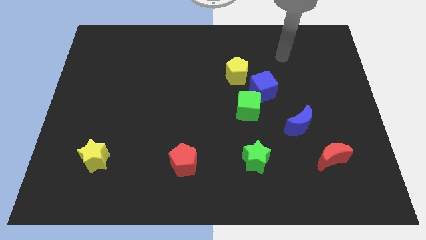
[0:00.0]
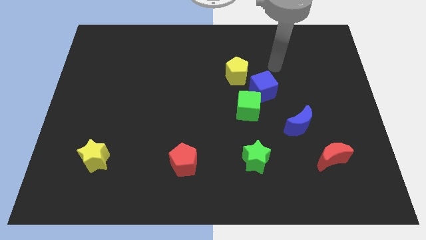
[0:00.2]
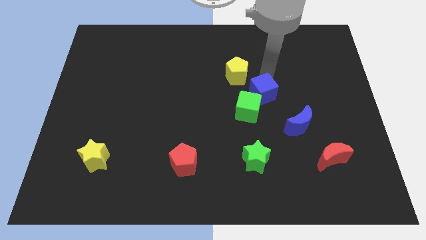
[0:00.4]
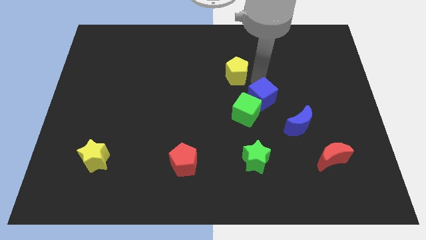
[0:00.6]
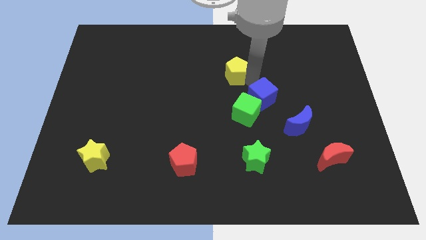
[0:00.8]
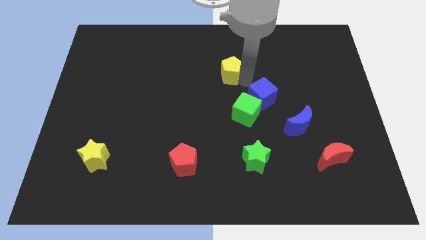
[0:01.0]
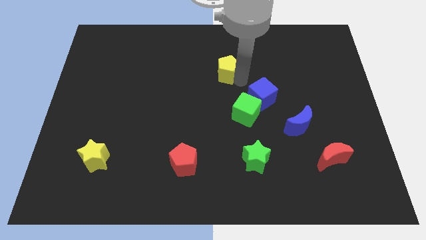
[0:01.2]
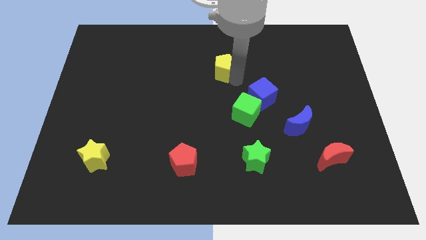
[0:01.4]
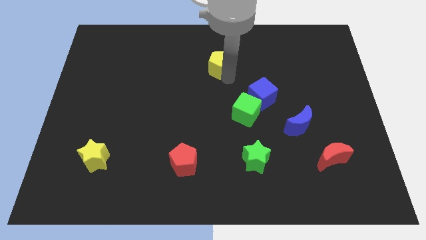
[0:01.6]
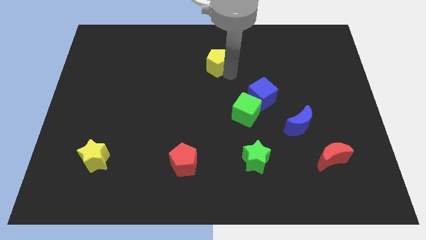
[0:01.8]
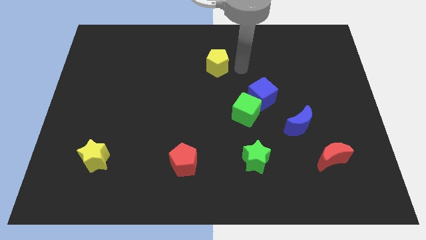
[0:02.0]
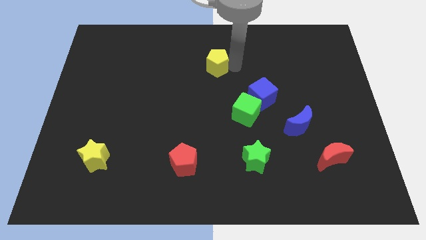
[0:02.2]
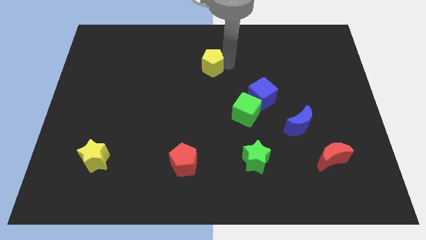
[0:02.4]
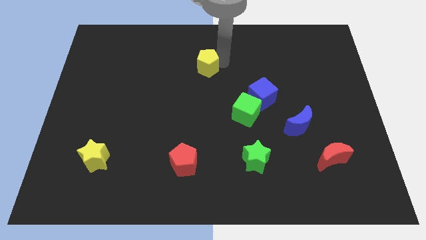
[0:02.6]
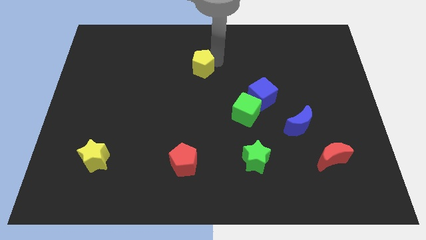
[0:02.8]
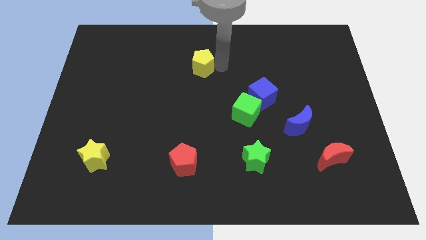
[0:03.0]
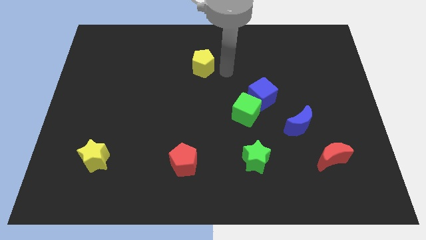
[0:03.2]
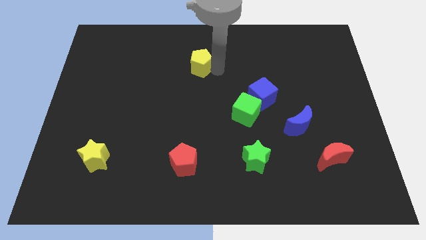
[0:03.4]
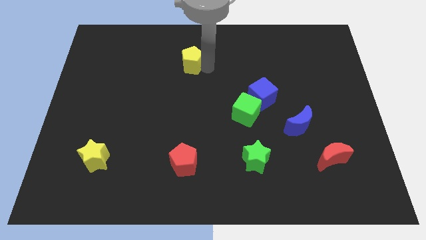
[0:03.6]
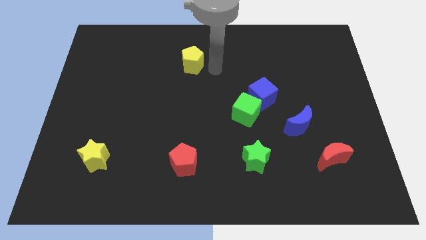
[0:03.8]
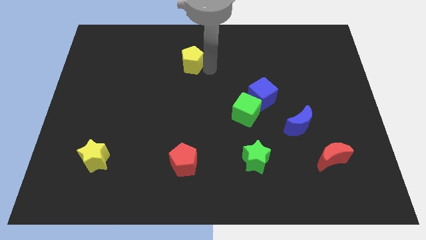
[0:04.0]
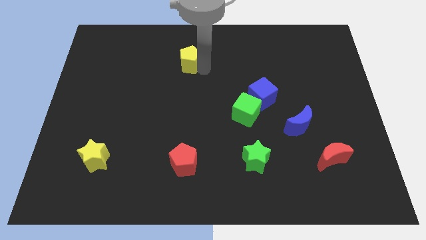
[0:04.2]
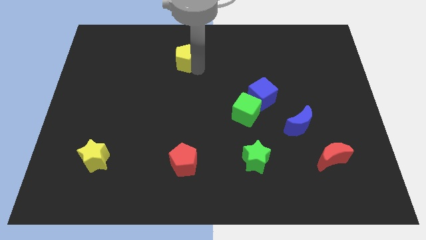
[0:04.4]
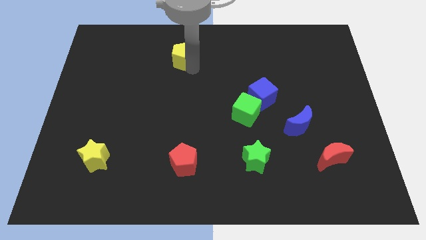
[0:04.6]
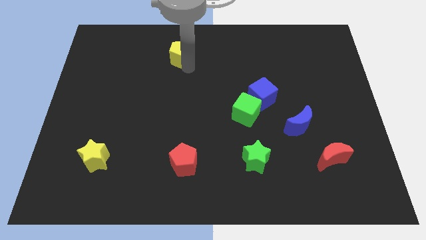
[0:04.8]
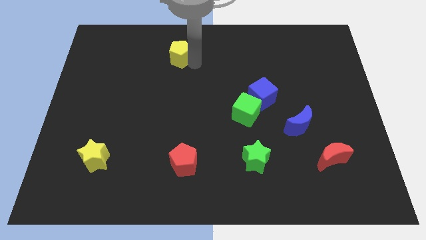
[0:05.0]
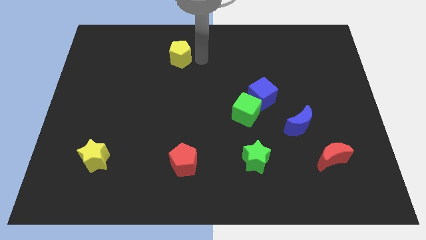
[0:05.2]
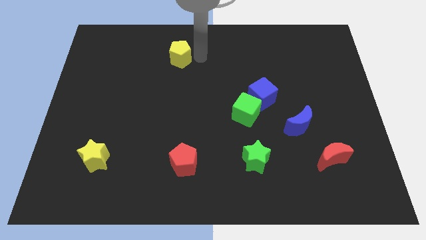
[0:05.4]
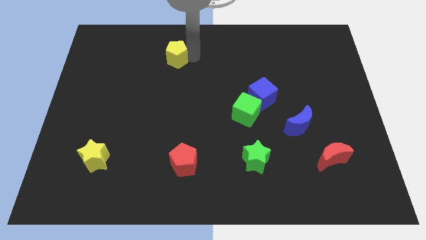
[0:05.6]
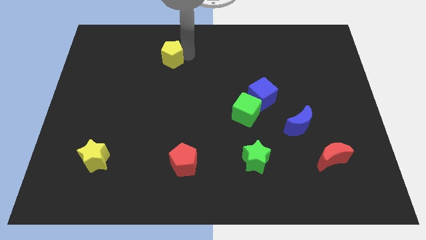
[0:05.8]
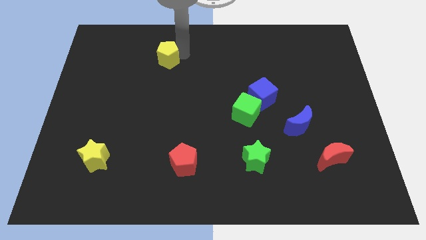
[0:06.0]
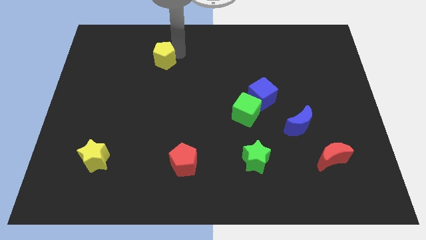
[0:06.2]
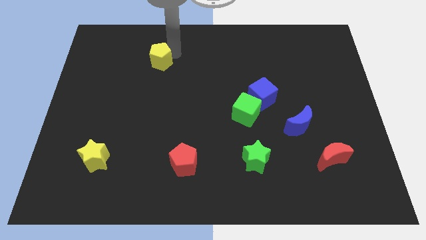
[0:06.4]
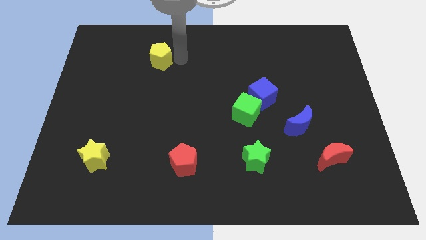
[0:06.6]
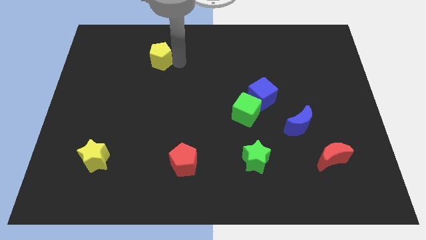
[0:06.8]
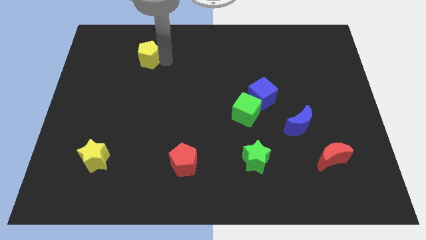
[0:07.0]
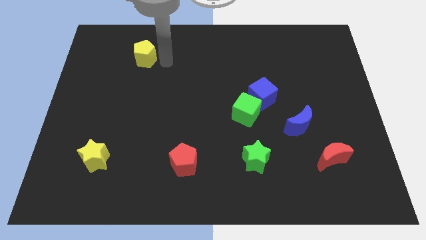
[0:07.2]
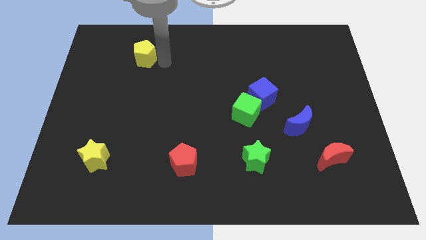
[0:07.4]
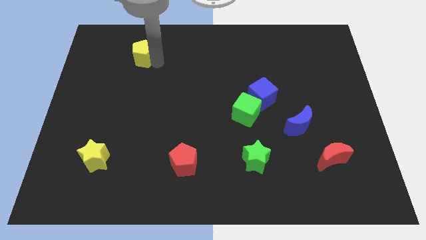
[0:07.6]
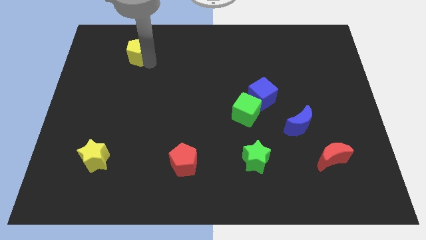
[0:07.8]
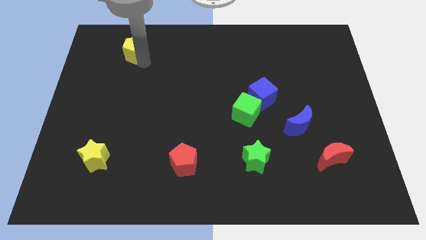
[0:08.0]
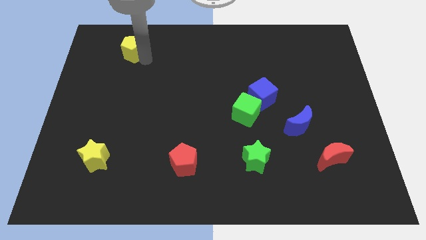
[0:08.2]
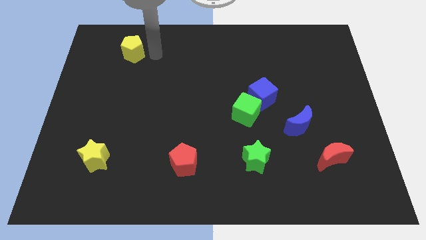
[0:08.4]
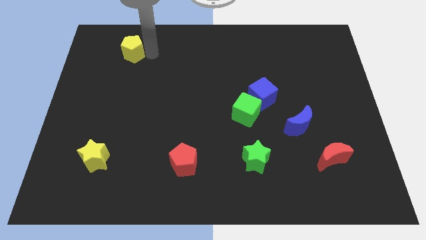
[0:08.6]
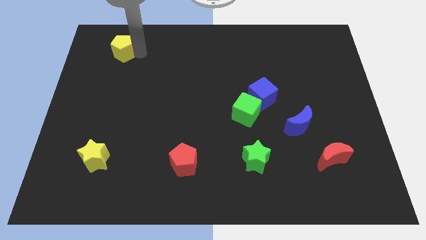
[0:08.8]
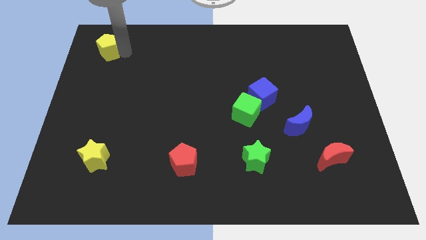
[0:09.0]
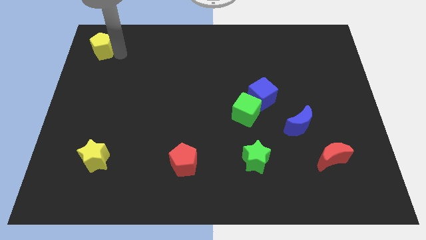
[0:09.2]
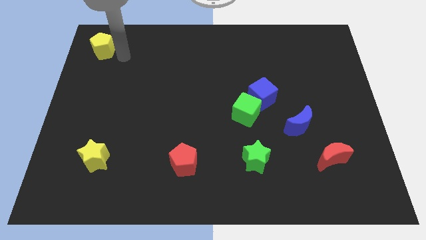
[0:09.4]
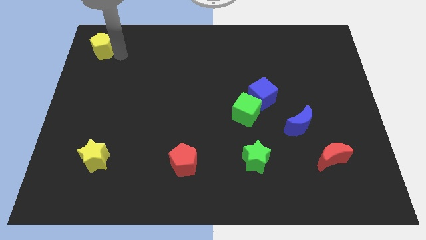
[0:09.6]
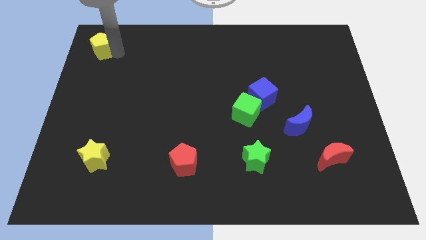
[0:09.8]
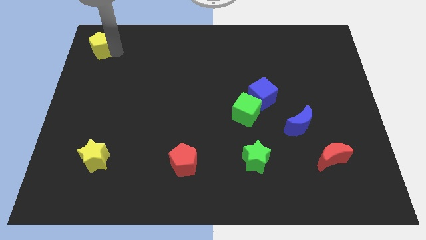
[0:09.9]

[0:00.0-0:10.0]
move the yellow pentagon to the upper left corner

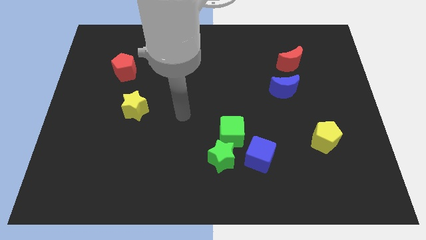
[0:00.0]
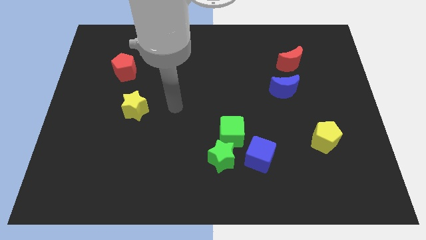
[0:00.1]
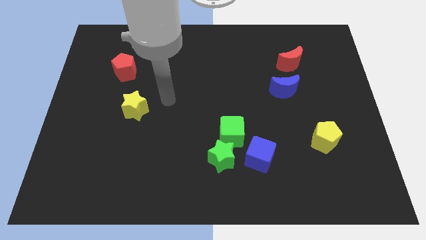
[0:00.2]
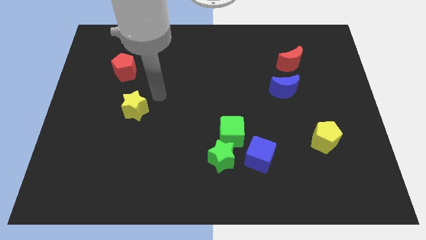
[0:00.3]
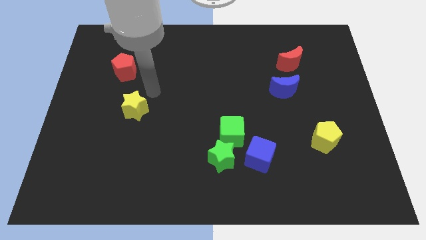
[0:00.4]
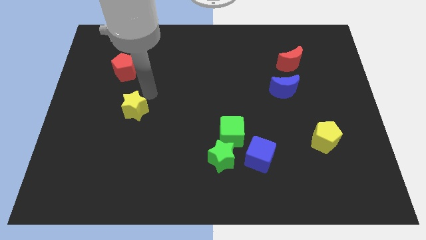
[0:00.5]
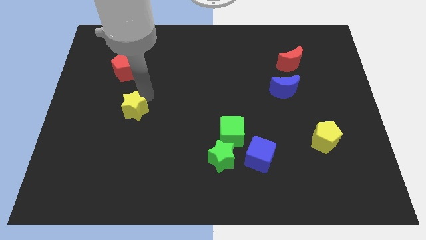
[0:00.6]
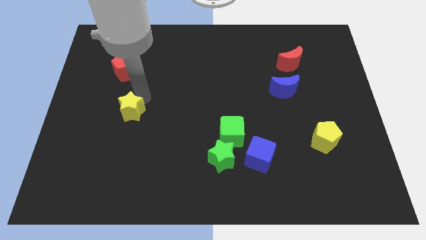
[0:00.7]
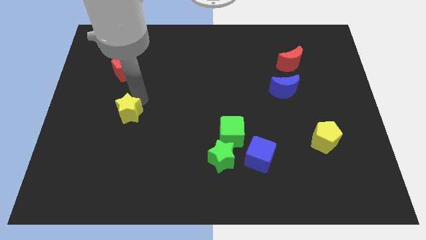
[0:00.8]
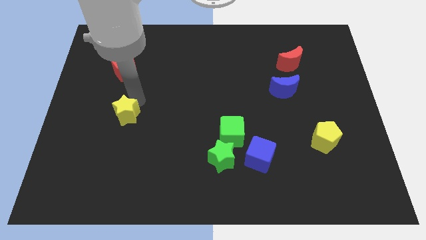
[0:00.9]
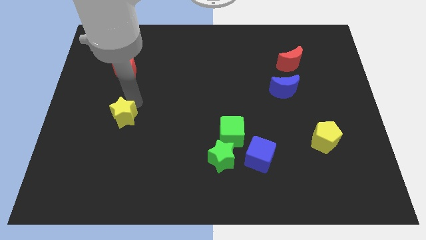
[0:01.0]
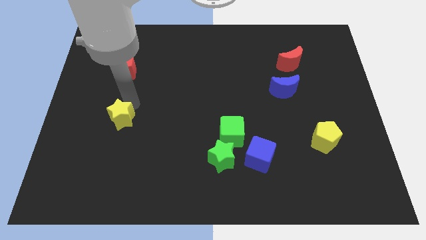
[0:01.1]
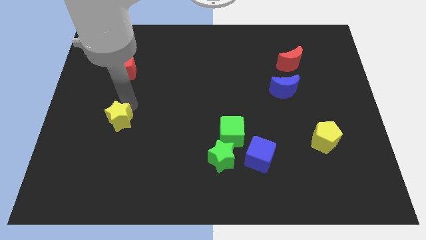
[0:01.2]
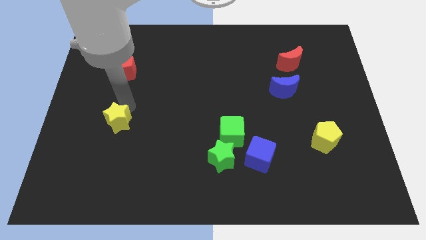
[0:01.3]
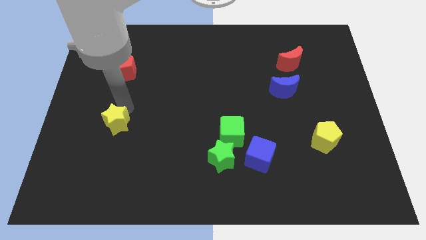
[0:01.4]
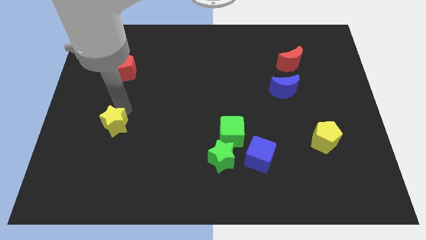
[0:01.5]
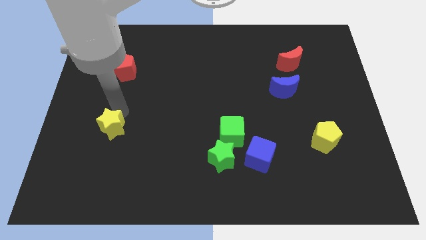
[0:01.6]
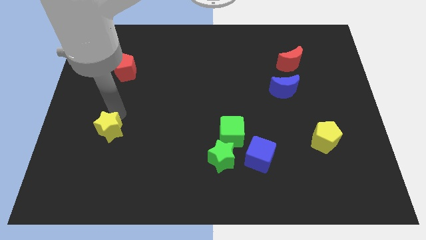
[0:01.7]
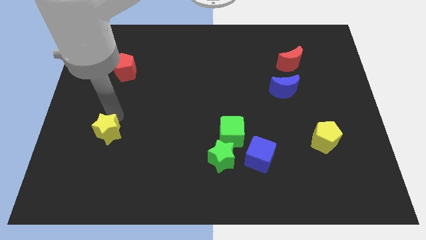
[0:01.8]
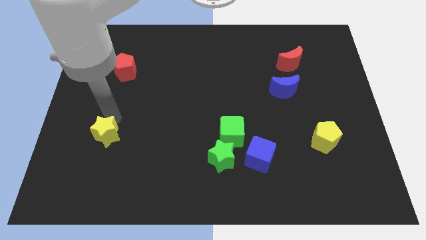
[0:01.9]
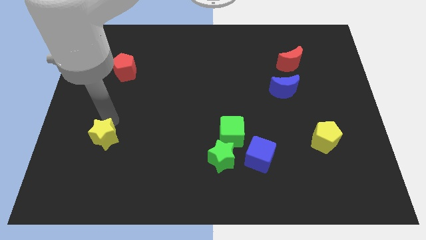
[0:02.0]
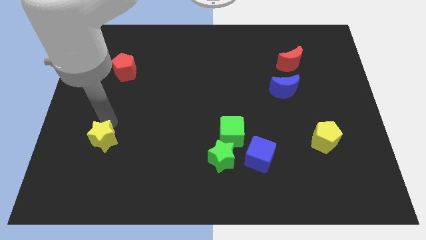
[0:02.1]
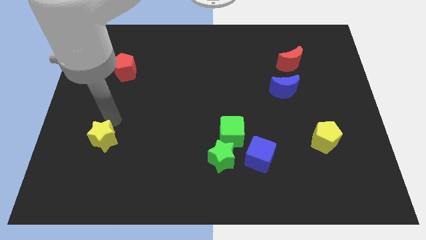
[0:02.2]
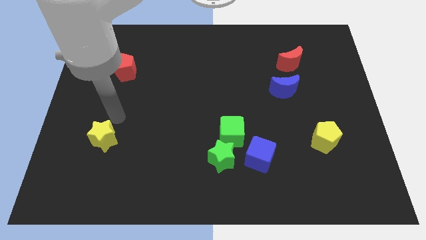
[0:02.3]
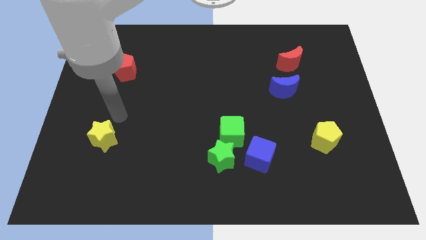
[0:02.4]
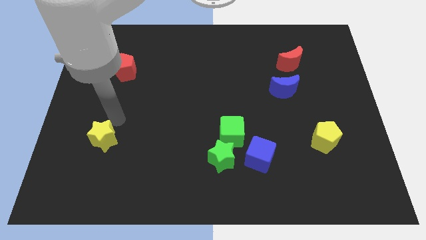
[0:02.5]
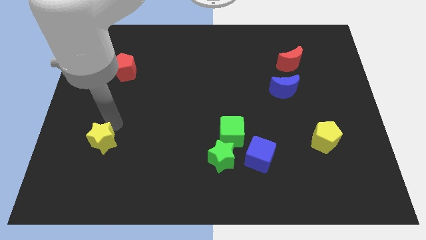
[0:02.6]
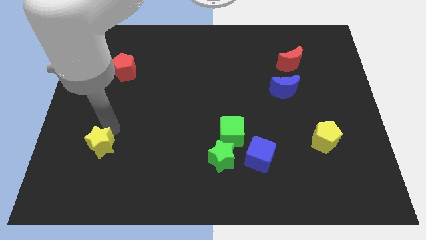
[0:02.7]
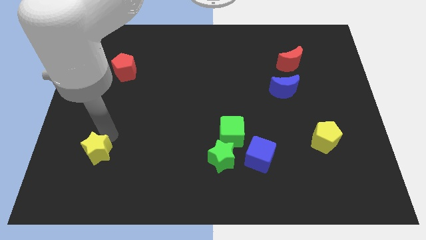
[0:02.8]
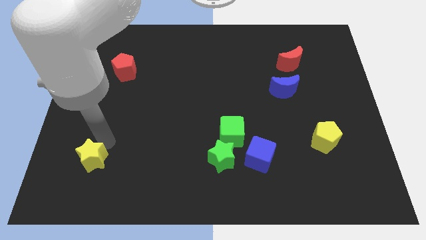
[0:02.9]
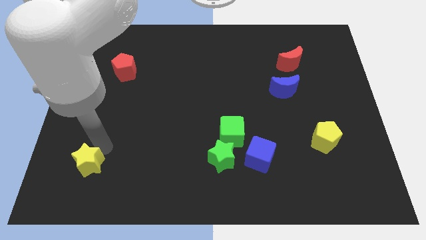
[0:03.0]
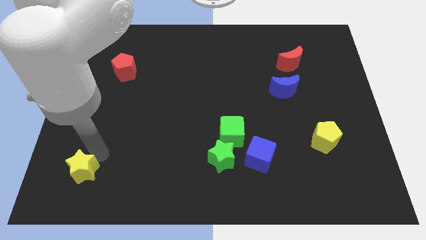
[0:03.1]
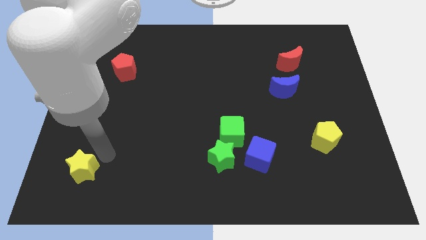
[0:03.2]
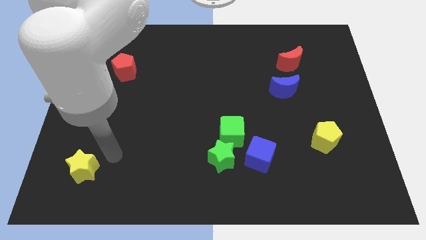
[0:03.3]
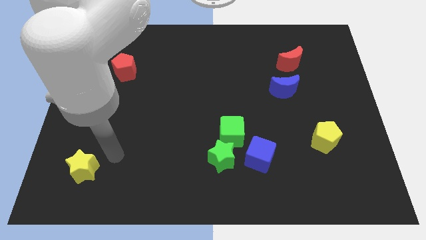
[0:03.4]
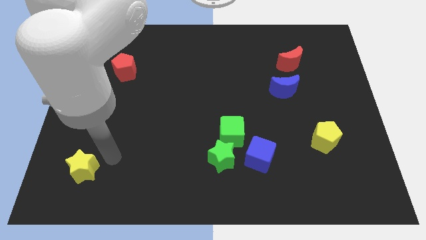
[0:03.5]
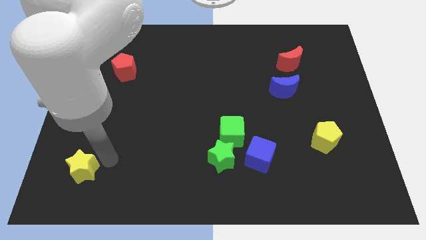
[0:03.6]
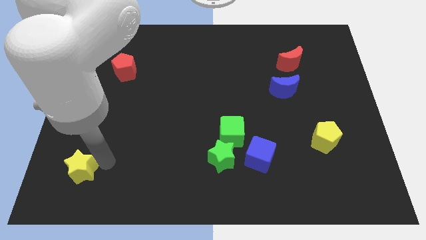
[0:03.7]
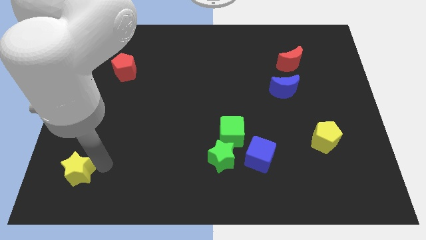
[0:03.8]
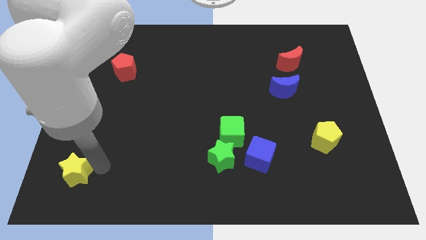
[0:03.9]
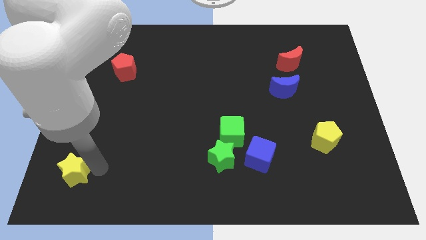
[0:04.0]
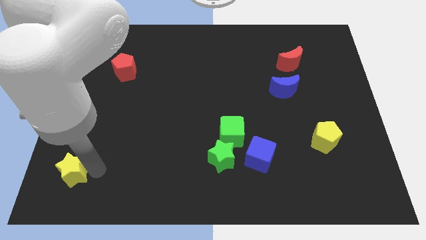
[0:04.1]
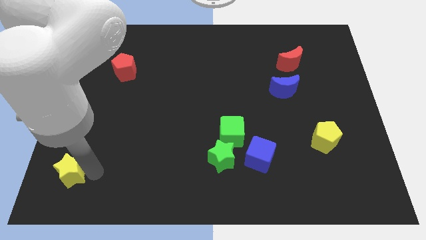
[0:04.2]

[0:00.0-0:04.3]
push the yellow star to the bottom left of the board
